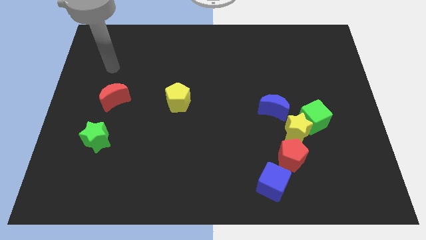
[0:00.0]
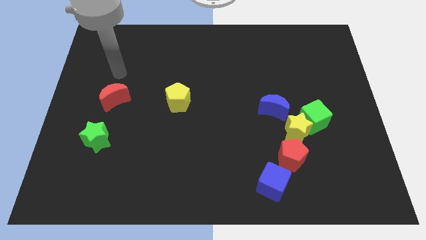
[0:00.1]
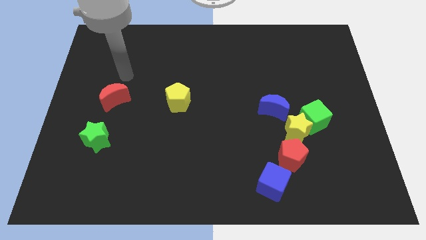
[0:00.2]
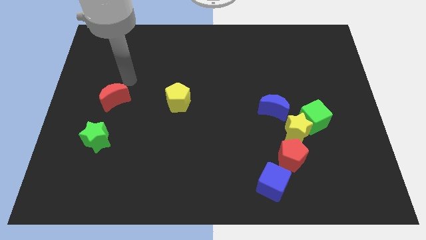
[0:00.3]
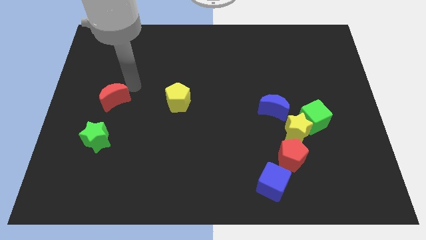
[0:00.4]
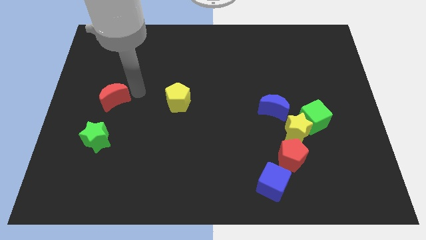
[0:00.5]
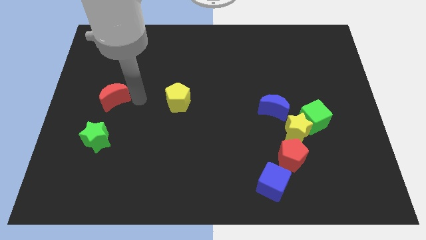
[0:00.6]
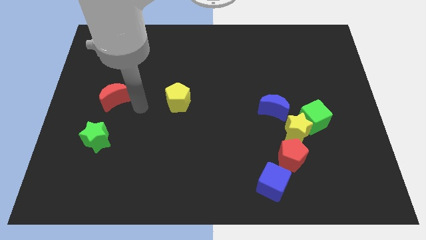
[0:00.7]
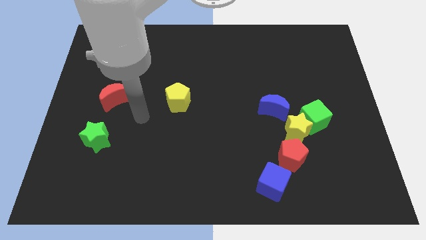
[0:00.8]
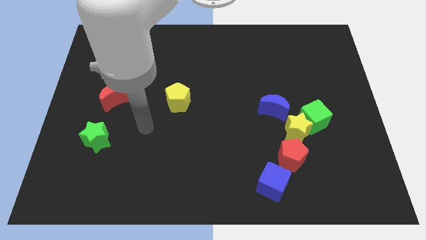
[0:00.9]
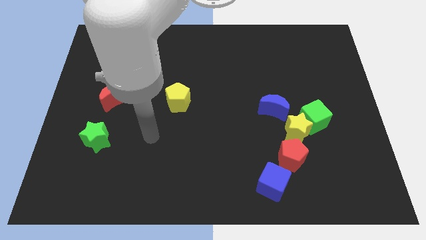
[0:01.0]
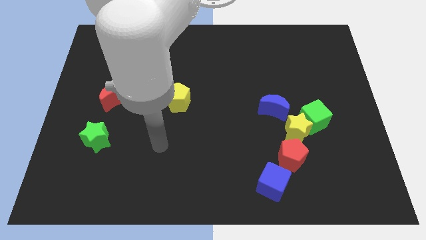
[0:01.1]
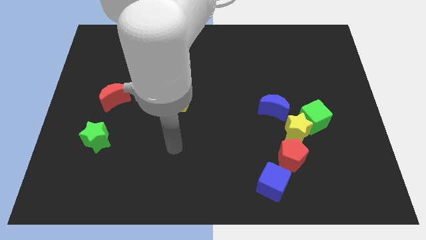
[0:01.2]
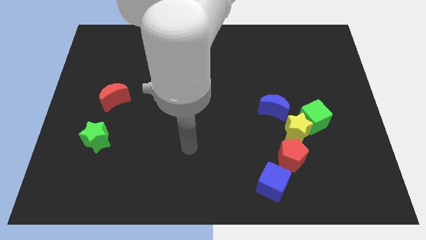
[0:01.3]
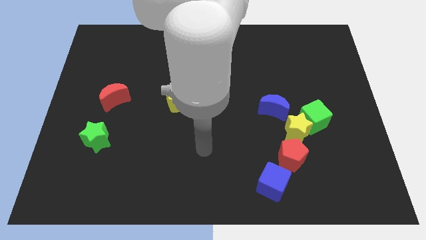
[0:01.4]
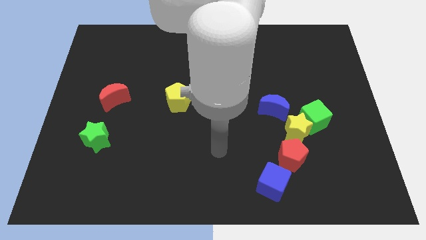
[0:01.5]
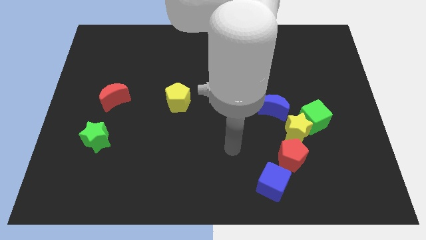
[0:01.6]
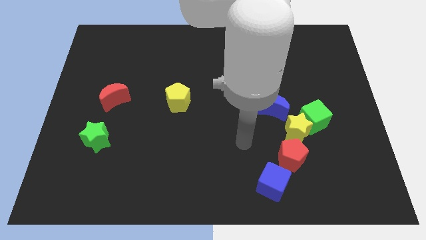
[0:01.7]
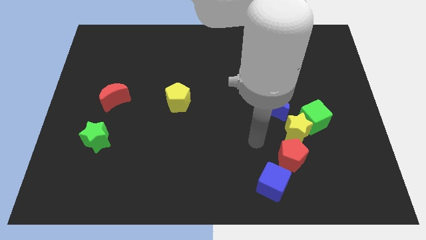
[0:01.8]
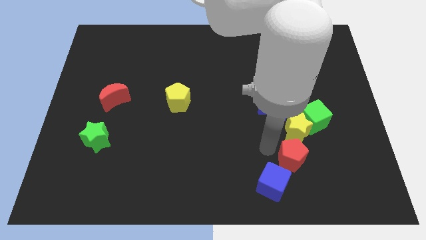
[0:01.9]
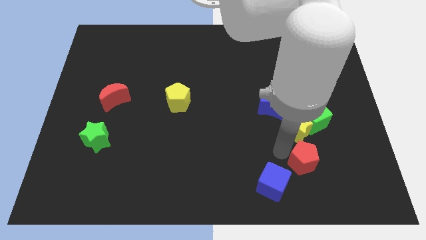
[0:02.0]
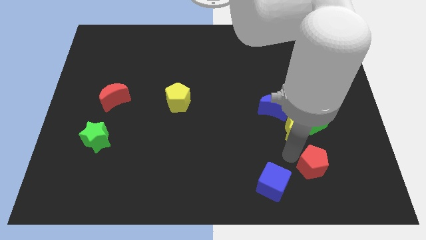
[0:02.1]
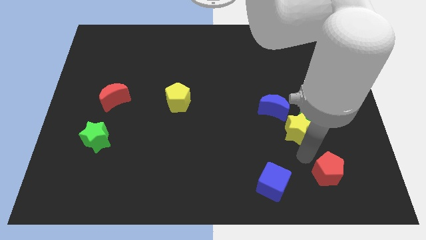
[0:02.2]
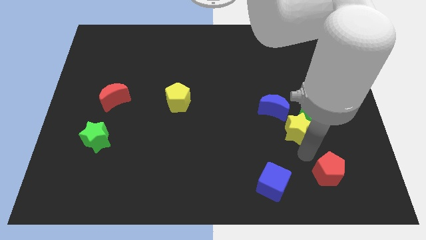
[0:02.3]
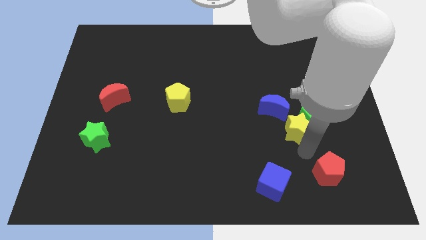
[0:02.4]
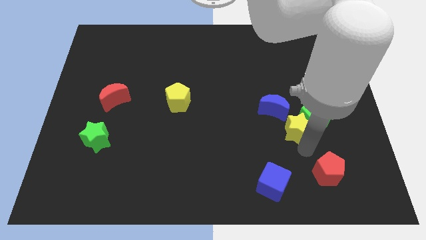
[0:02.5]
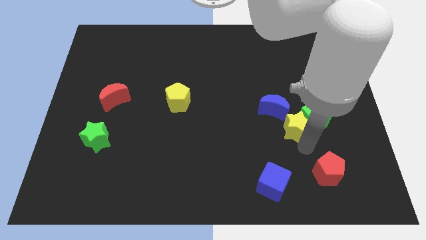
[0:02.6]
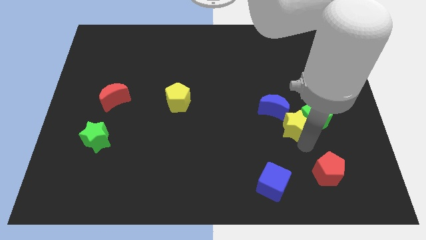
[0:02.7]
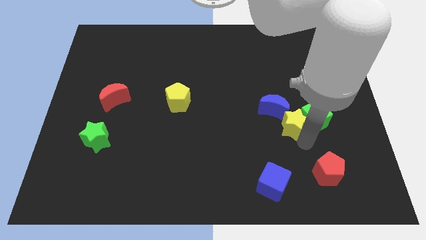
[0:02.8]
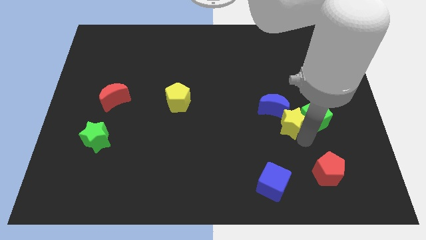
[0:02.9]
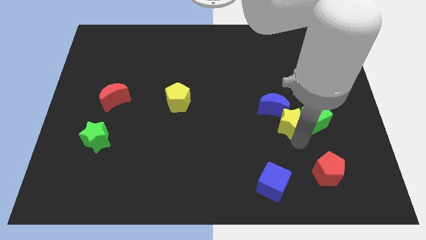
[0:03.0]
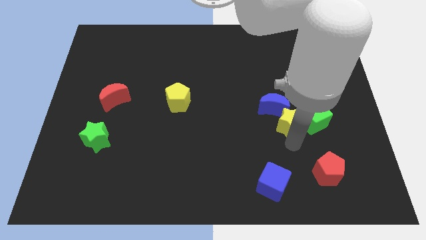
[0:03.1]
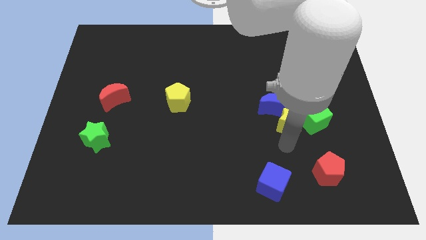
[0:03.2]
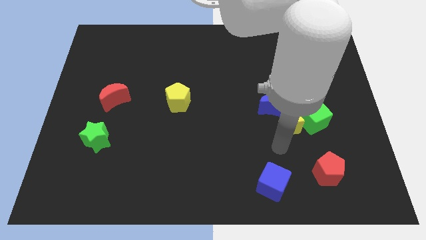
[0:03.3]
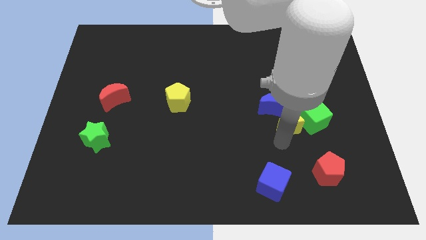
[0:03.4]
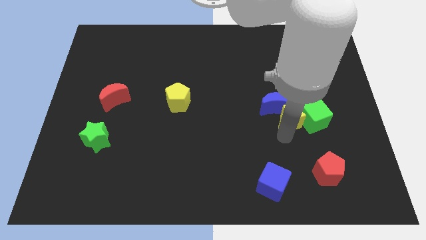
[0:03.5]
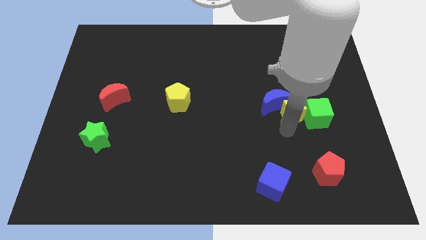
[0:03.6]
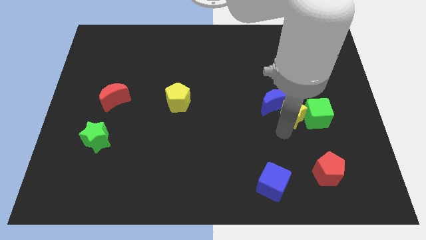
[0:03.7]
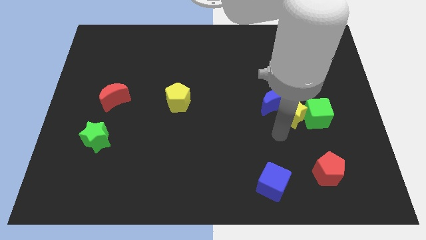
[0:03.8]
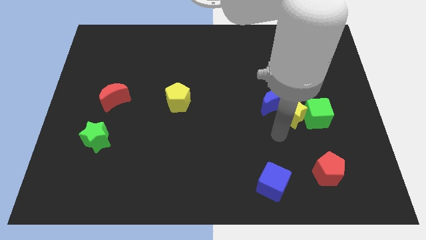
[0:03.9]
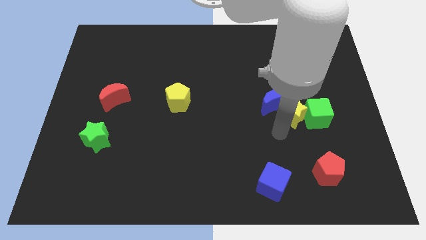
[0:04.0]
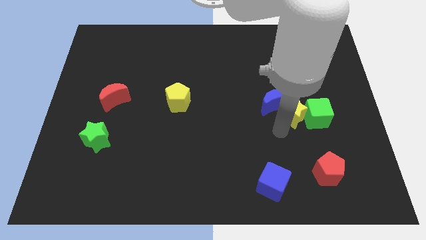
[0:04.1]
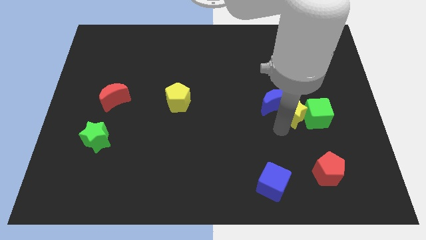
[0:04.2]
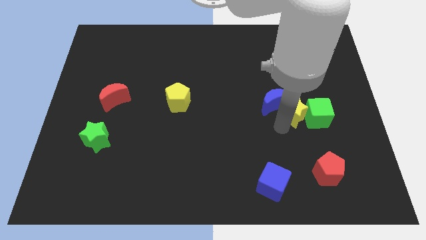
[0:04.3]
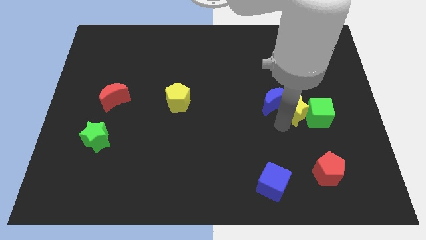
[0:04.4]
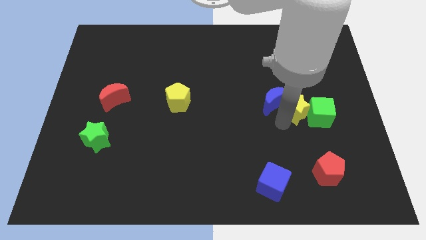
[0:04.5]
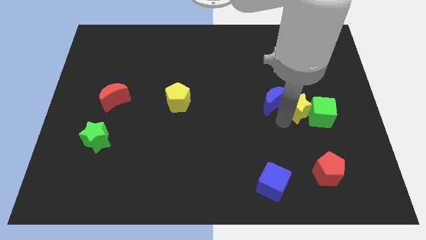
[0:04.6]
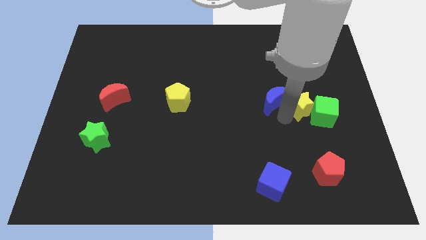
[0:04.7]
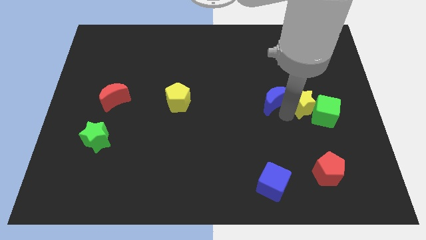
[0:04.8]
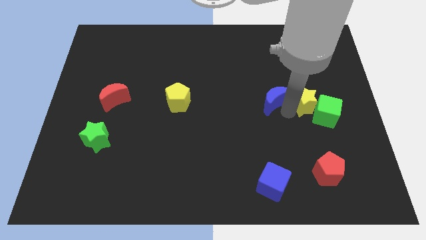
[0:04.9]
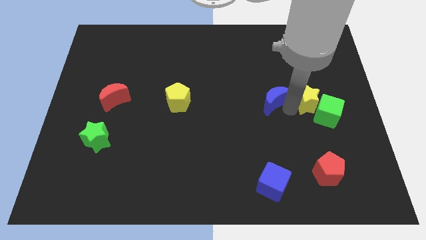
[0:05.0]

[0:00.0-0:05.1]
put the yellow star to the top side of the green cube

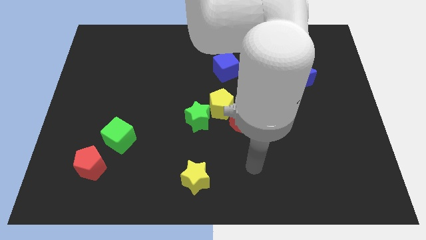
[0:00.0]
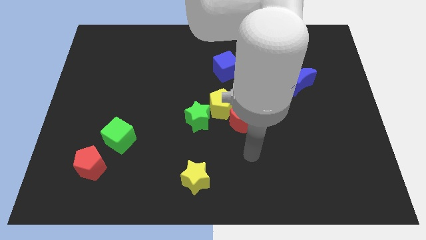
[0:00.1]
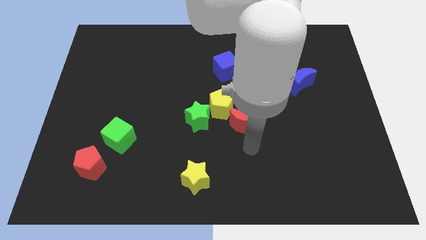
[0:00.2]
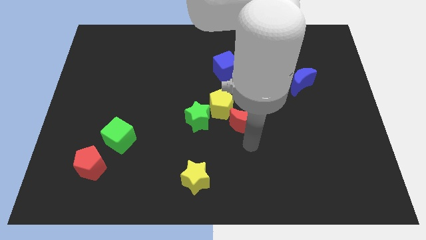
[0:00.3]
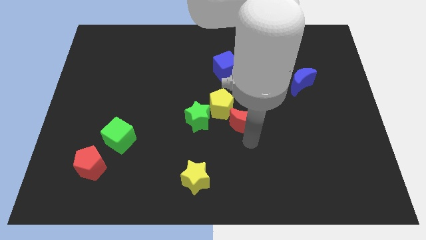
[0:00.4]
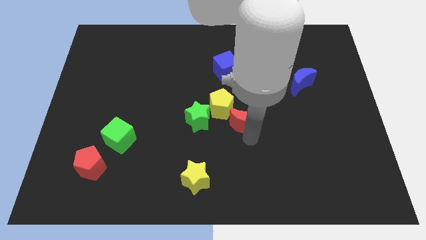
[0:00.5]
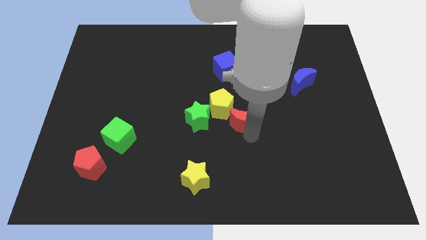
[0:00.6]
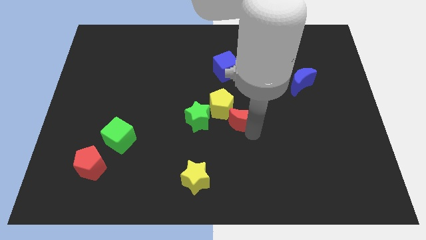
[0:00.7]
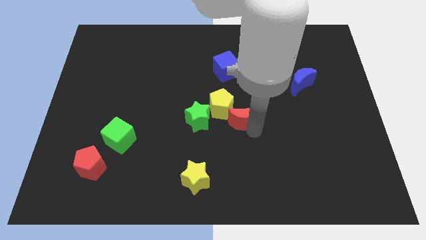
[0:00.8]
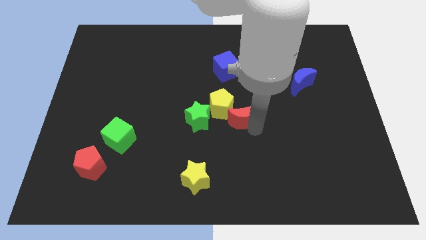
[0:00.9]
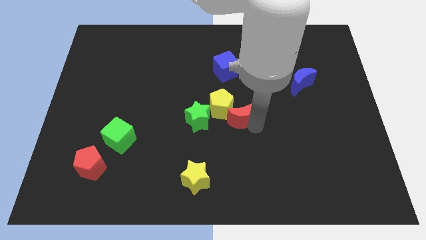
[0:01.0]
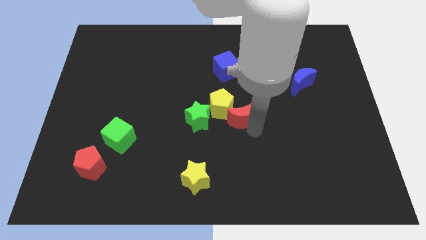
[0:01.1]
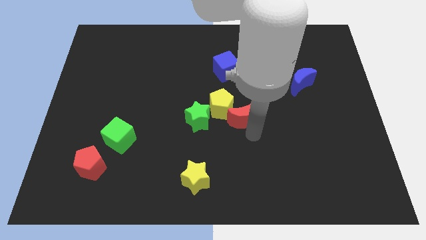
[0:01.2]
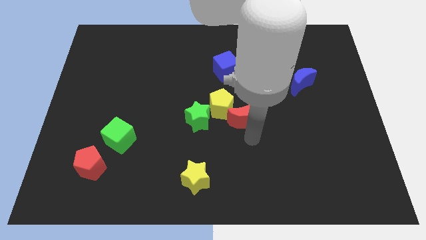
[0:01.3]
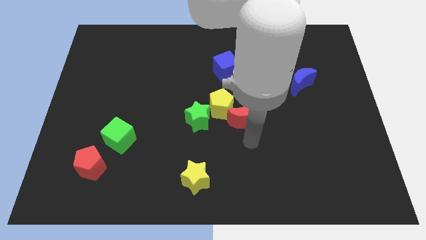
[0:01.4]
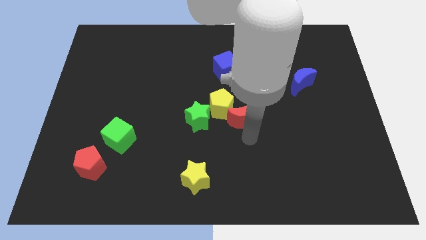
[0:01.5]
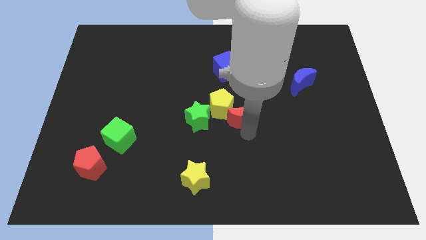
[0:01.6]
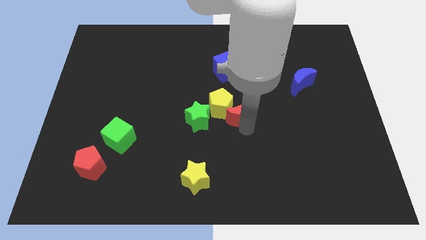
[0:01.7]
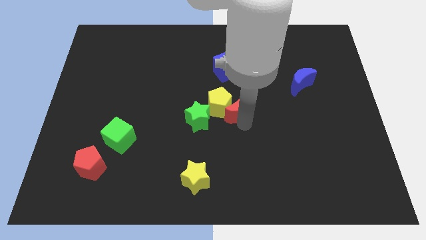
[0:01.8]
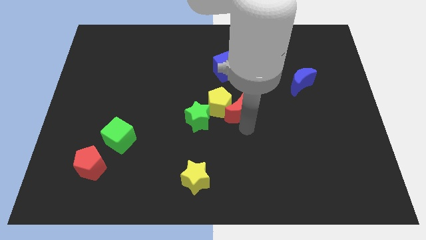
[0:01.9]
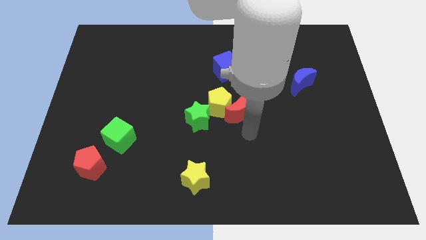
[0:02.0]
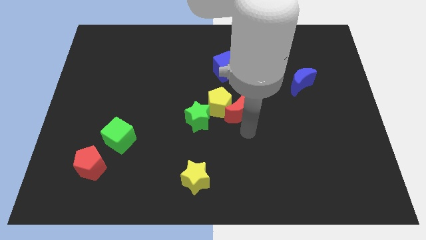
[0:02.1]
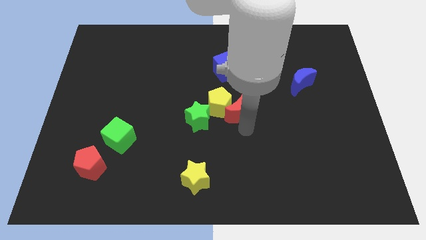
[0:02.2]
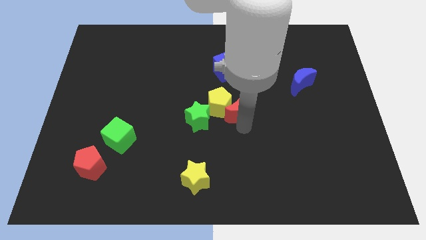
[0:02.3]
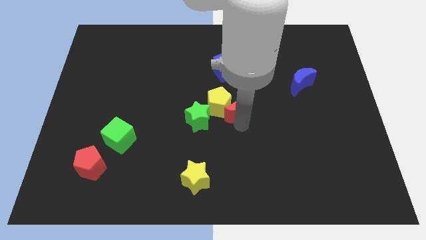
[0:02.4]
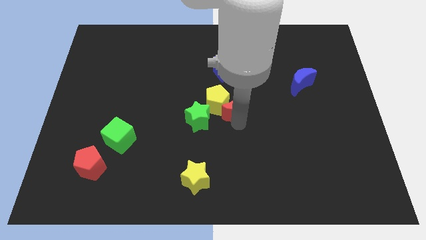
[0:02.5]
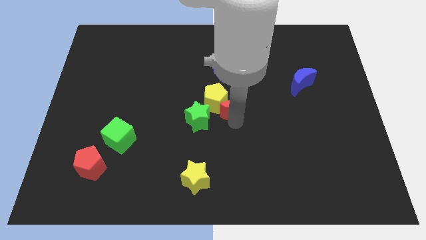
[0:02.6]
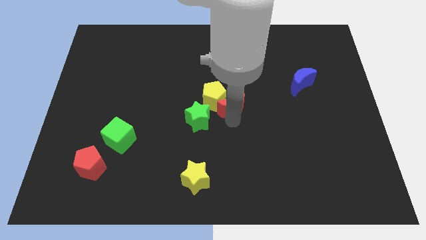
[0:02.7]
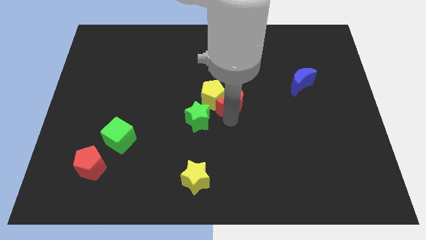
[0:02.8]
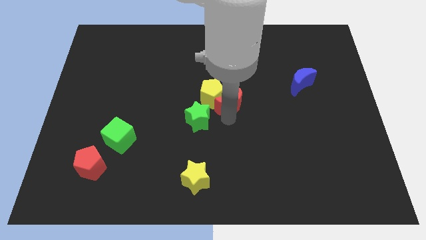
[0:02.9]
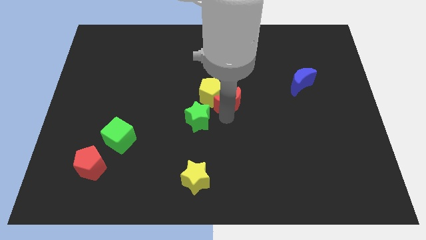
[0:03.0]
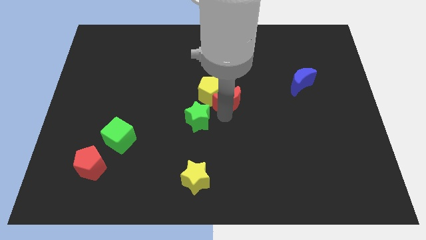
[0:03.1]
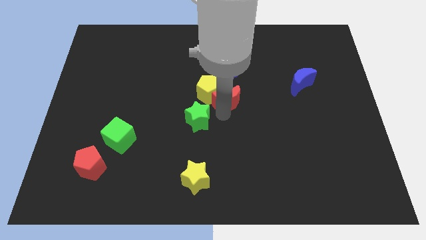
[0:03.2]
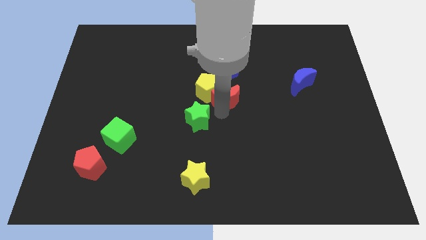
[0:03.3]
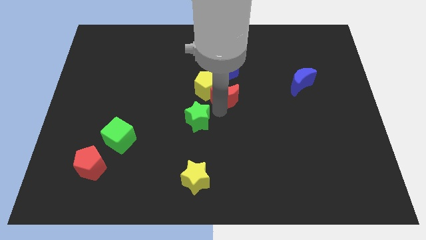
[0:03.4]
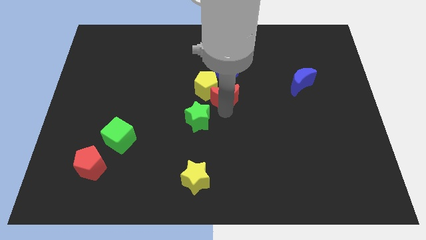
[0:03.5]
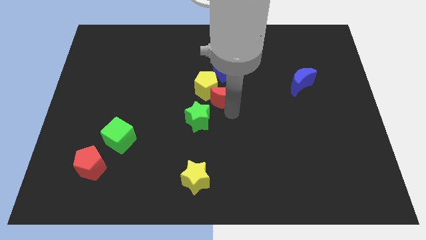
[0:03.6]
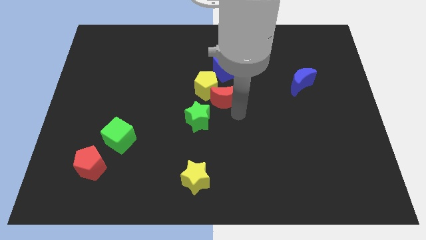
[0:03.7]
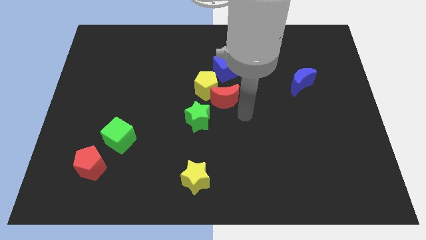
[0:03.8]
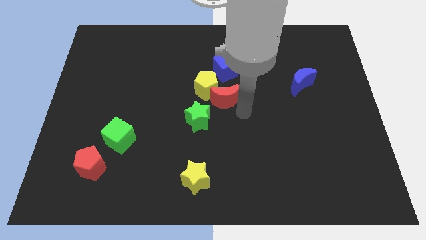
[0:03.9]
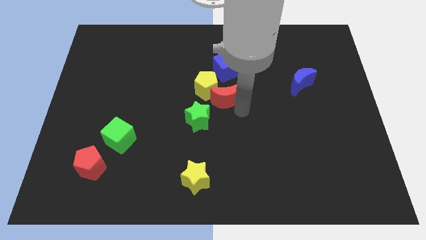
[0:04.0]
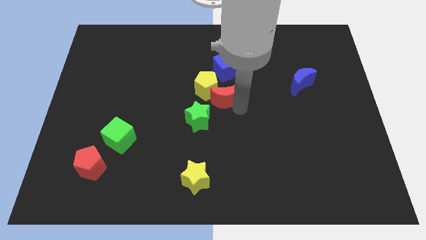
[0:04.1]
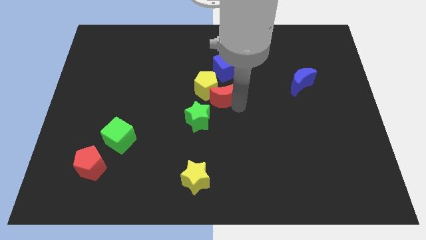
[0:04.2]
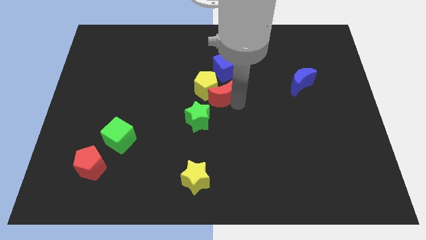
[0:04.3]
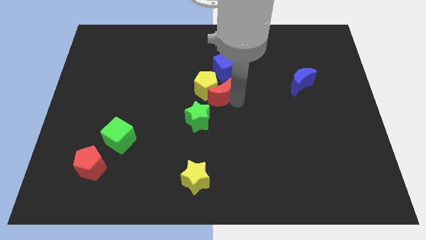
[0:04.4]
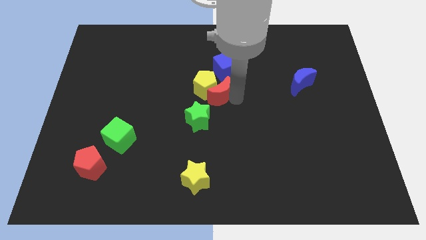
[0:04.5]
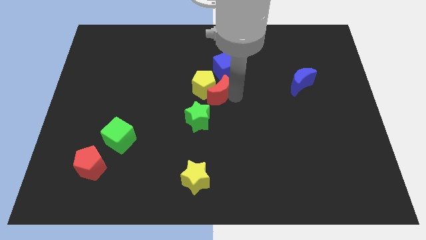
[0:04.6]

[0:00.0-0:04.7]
put the red moon to the bottom left side of the blue cube
